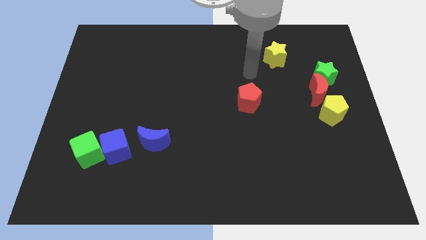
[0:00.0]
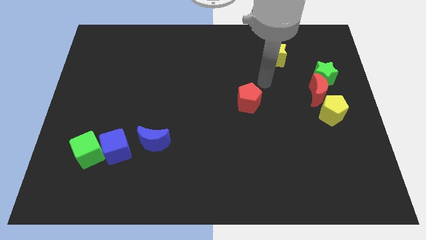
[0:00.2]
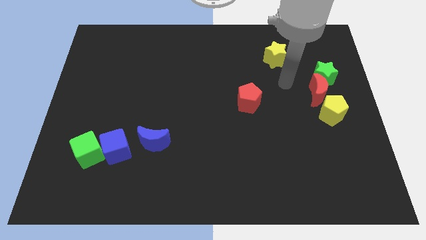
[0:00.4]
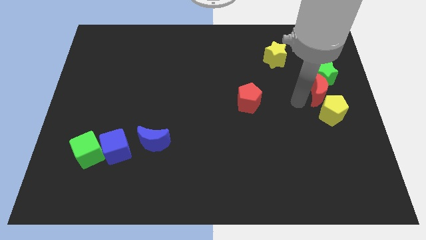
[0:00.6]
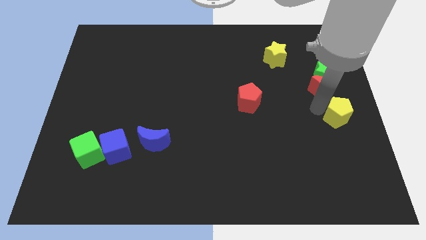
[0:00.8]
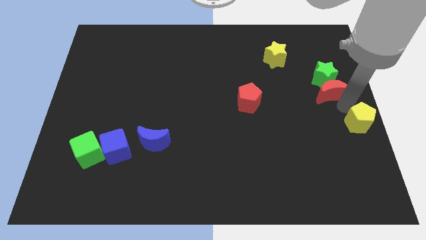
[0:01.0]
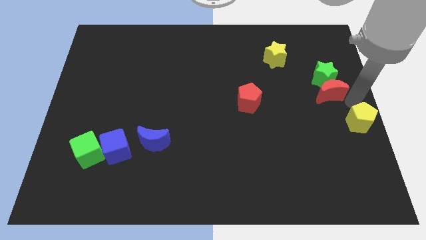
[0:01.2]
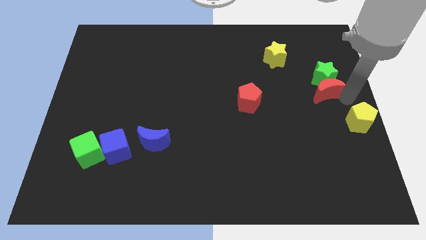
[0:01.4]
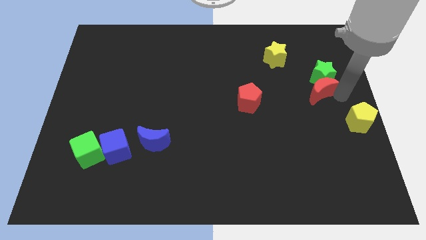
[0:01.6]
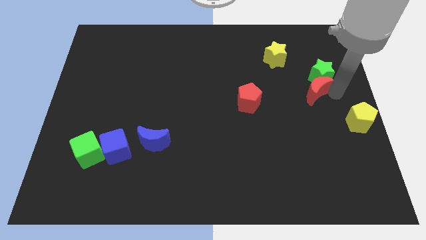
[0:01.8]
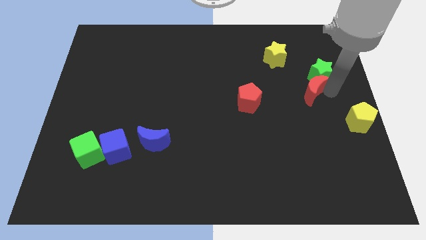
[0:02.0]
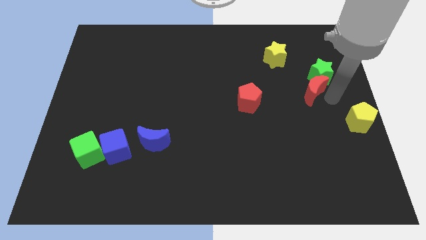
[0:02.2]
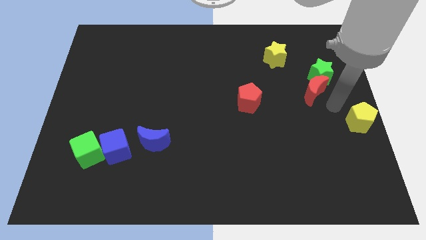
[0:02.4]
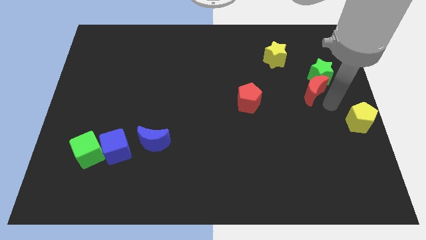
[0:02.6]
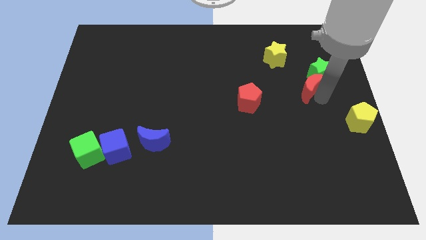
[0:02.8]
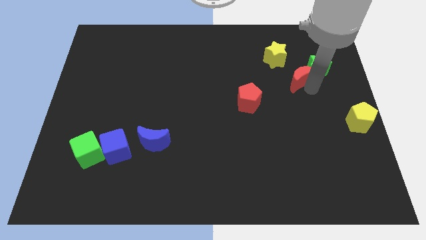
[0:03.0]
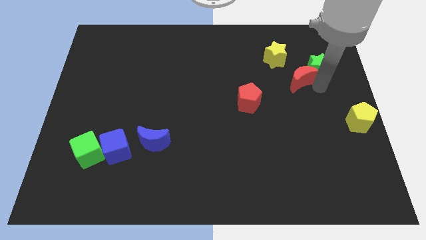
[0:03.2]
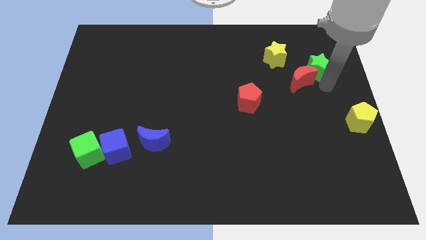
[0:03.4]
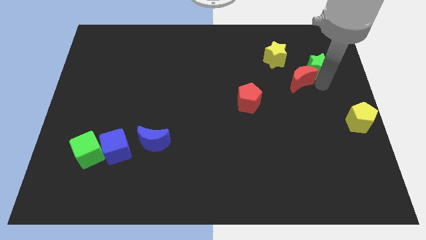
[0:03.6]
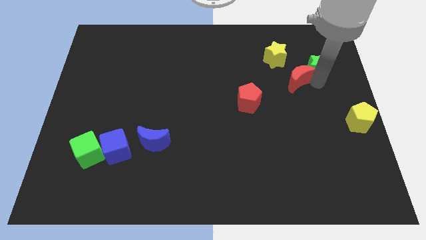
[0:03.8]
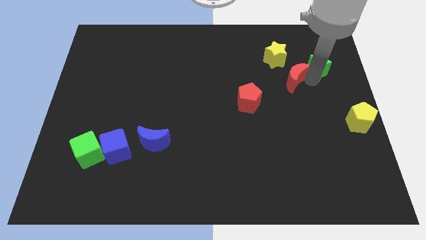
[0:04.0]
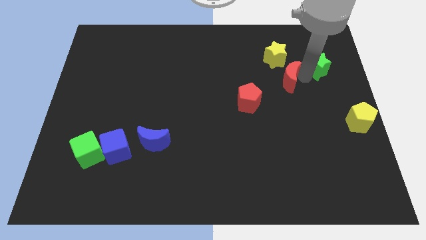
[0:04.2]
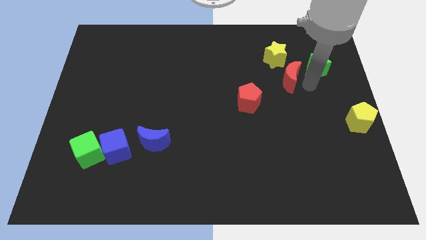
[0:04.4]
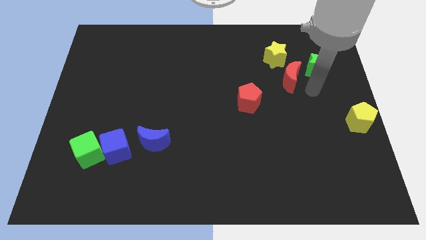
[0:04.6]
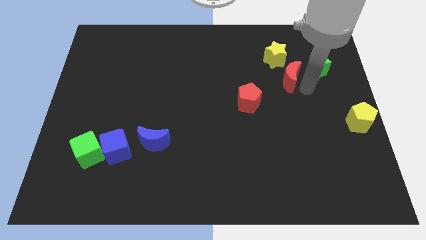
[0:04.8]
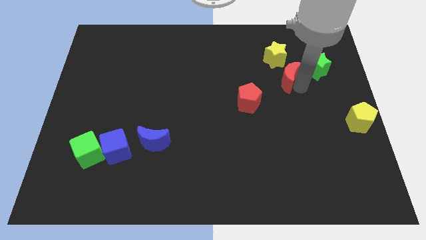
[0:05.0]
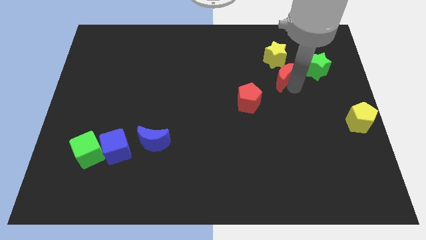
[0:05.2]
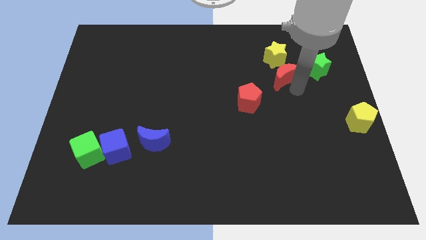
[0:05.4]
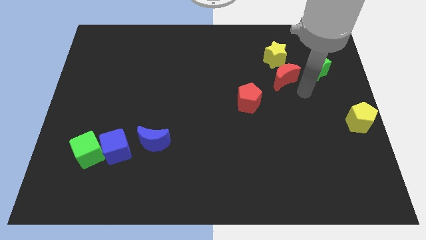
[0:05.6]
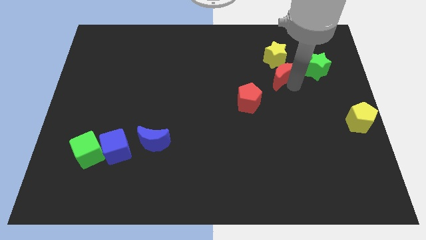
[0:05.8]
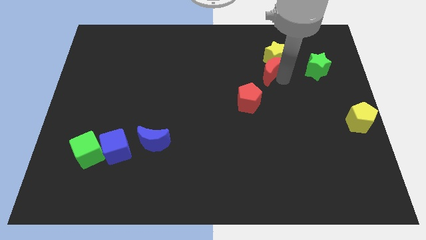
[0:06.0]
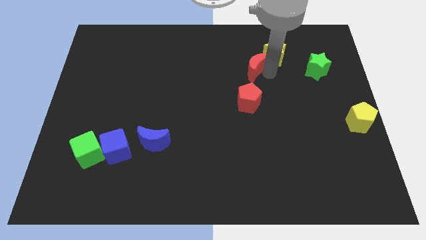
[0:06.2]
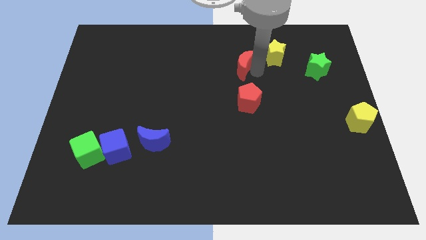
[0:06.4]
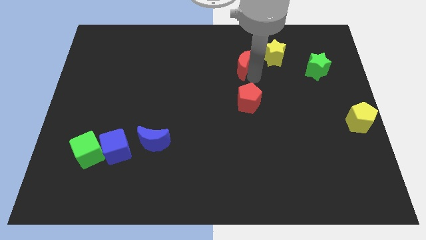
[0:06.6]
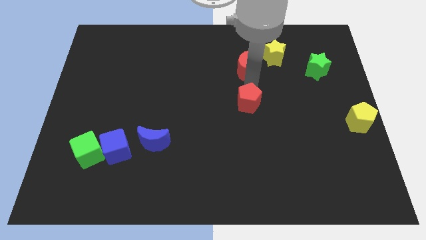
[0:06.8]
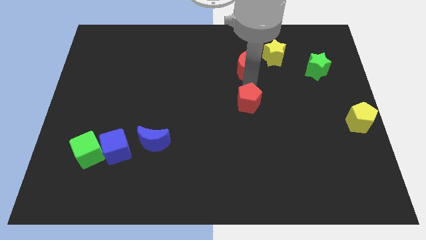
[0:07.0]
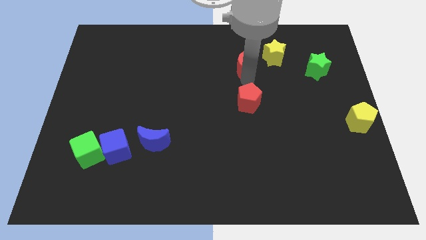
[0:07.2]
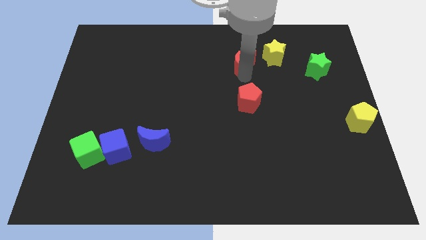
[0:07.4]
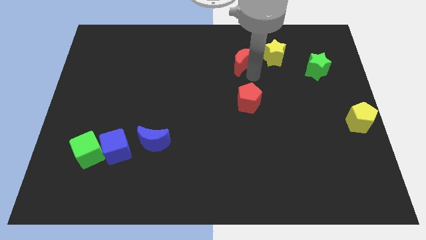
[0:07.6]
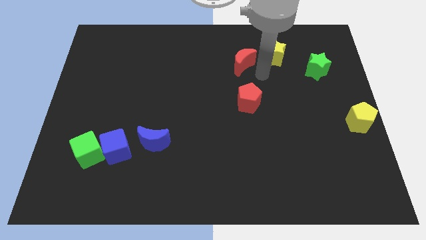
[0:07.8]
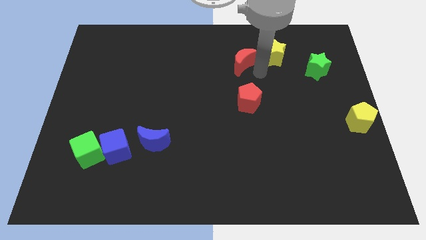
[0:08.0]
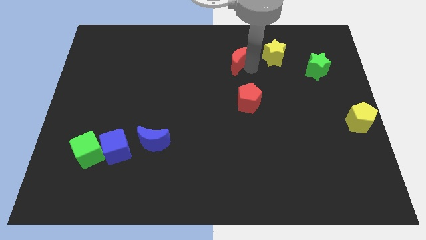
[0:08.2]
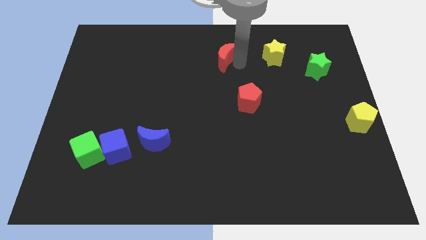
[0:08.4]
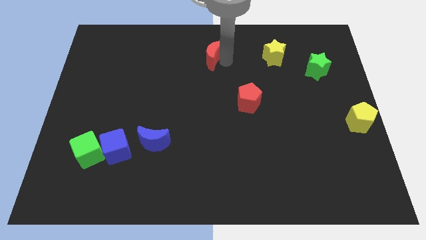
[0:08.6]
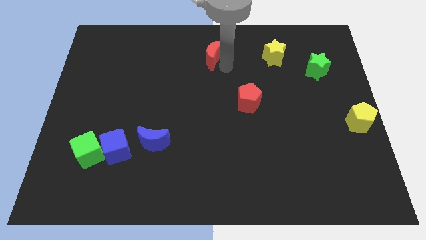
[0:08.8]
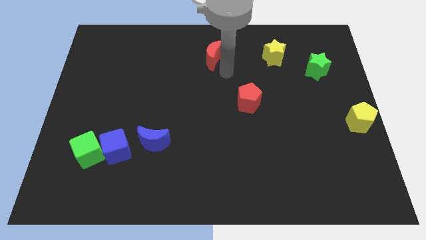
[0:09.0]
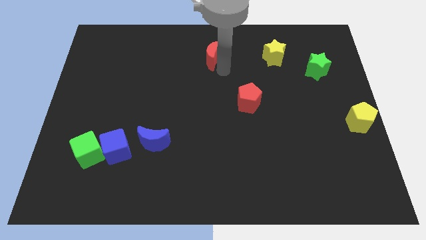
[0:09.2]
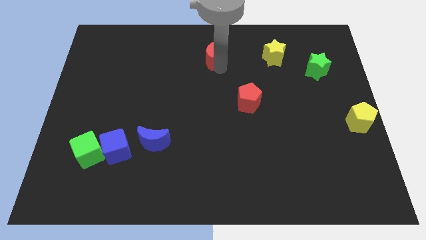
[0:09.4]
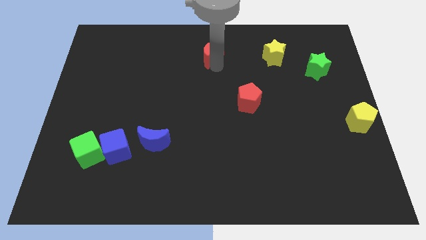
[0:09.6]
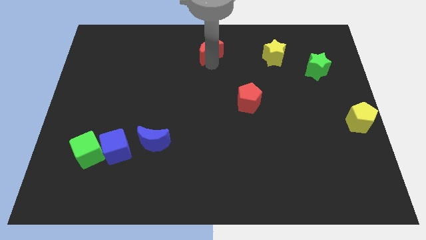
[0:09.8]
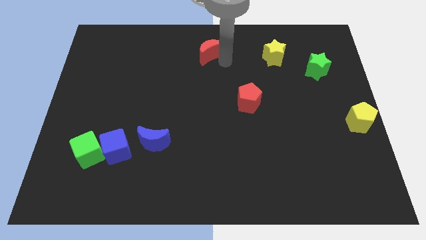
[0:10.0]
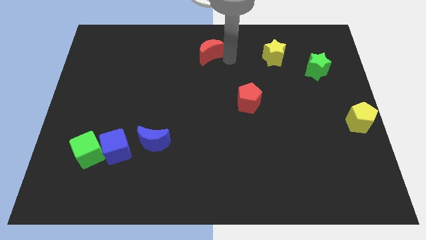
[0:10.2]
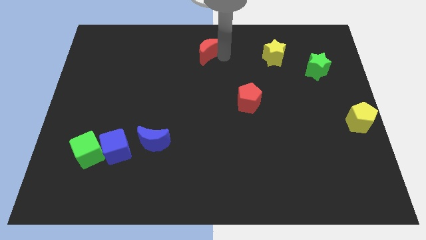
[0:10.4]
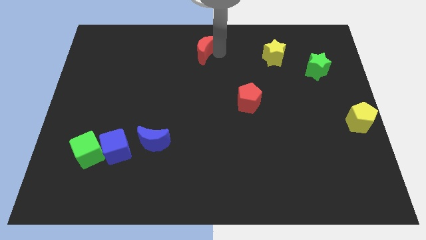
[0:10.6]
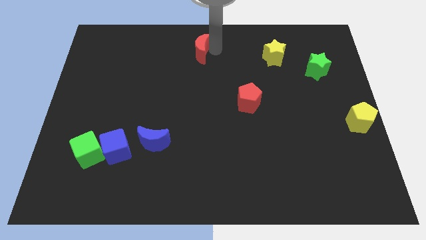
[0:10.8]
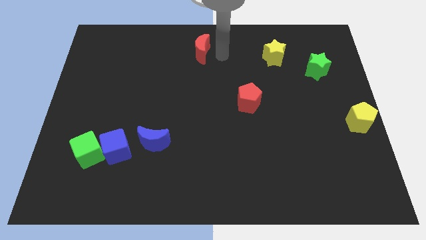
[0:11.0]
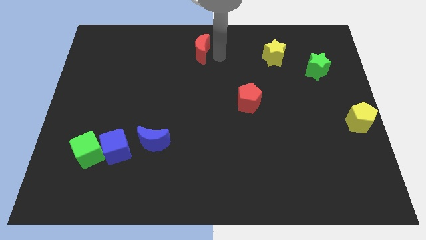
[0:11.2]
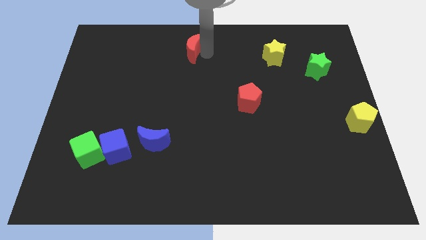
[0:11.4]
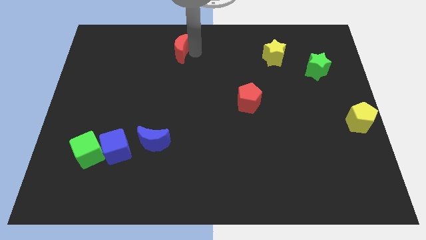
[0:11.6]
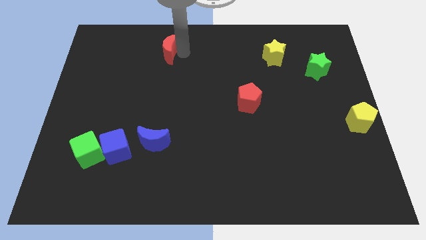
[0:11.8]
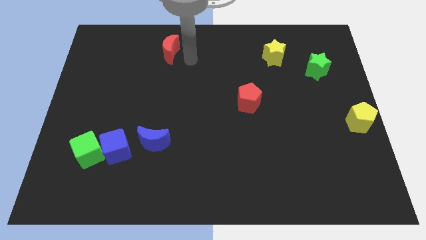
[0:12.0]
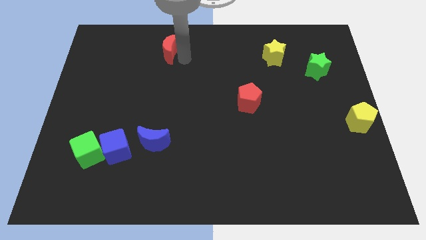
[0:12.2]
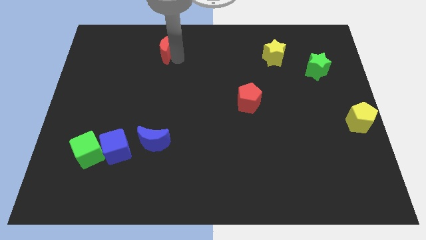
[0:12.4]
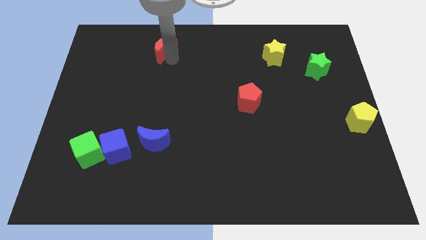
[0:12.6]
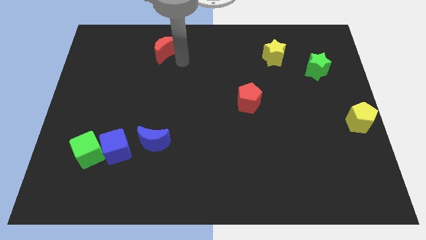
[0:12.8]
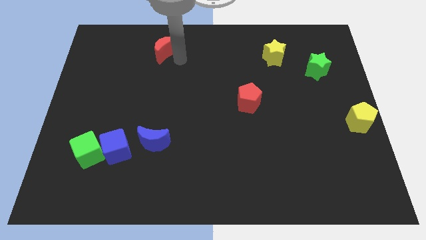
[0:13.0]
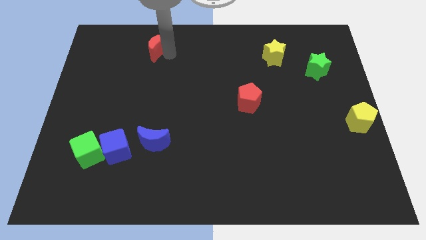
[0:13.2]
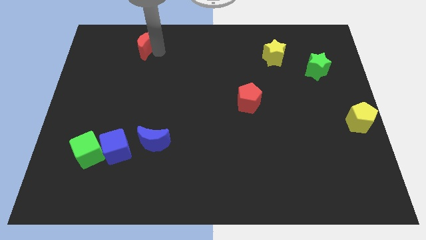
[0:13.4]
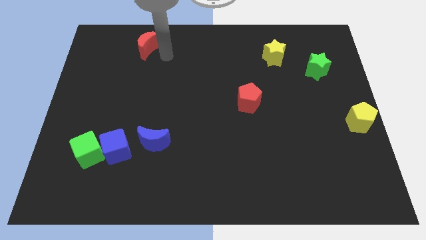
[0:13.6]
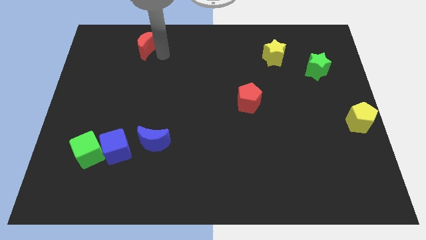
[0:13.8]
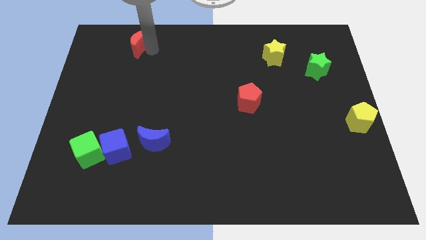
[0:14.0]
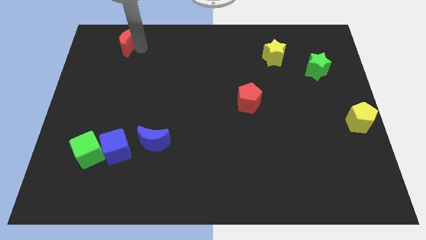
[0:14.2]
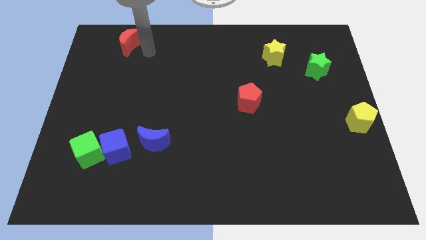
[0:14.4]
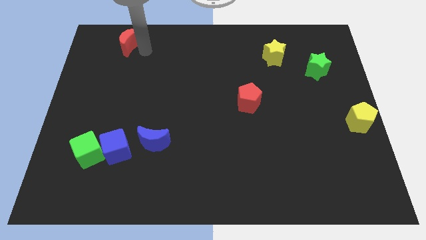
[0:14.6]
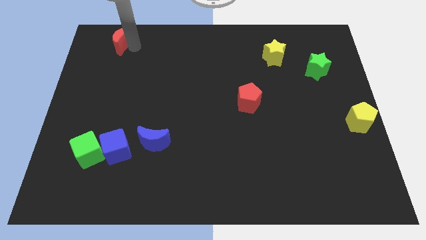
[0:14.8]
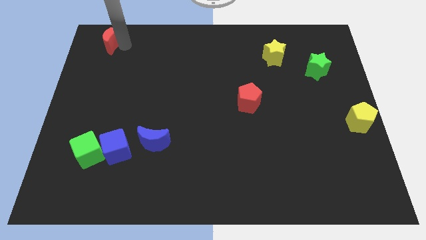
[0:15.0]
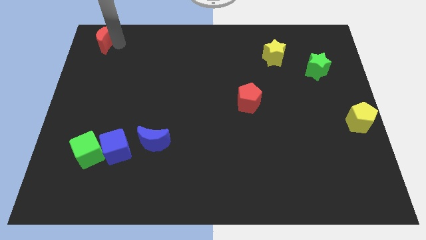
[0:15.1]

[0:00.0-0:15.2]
push the red moon to the upper left corner
